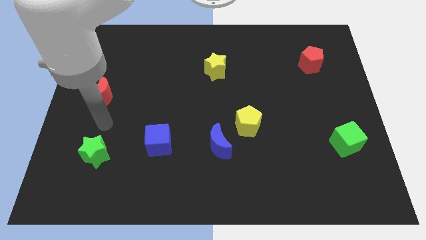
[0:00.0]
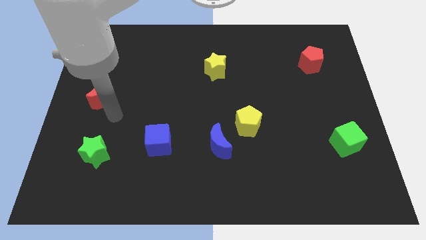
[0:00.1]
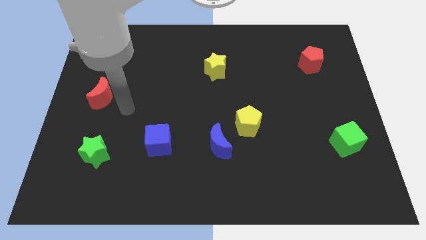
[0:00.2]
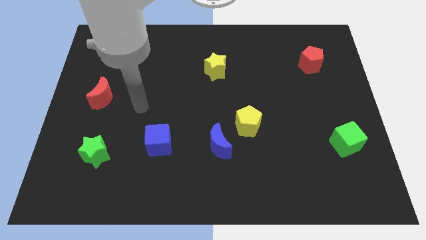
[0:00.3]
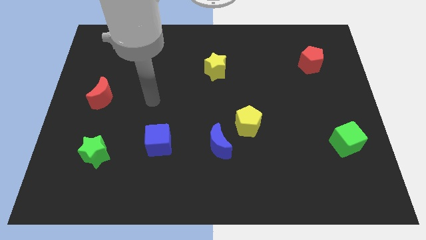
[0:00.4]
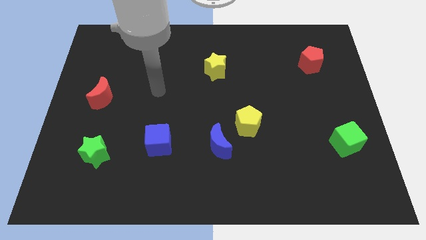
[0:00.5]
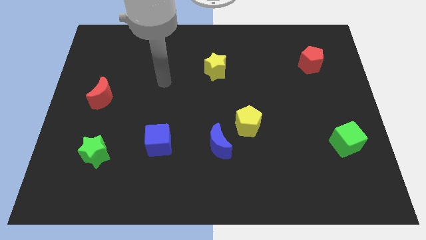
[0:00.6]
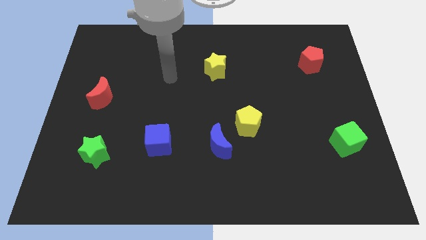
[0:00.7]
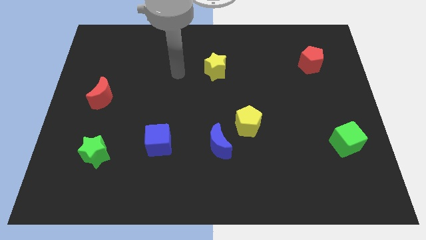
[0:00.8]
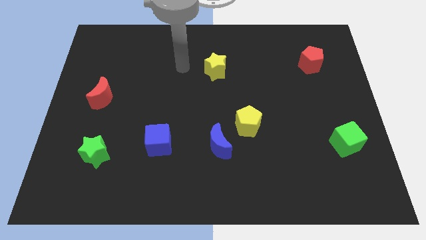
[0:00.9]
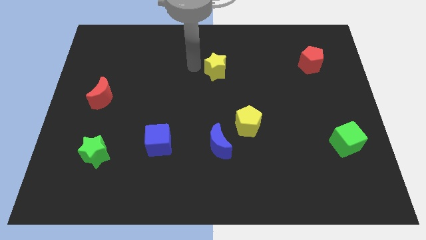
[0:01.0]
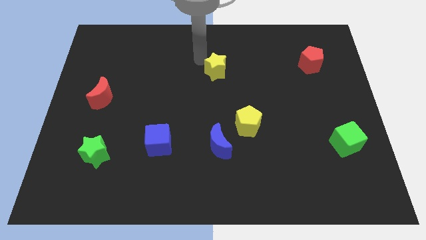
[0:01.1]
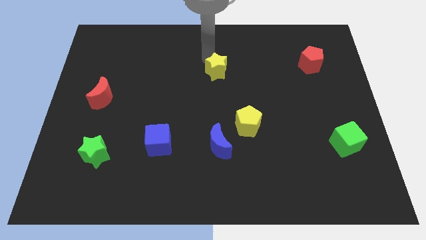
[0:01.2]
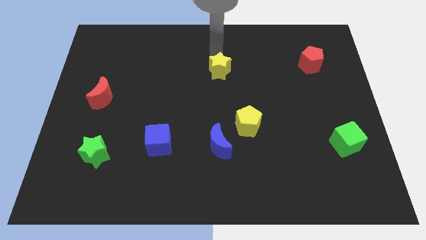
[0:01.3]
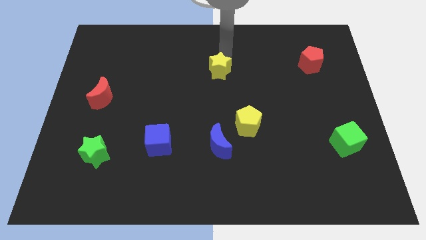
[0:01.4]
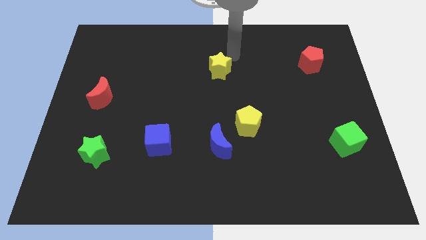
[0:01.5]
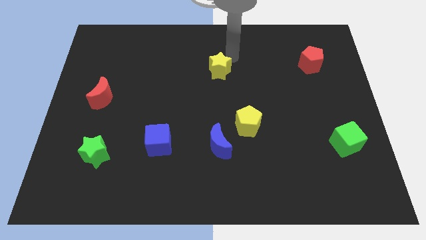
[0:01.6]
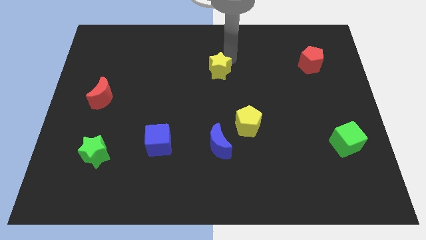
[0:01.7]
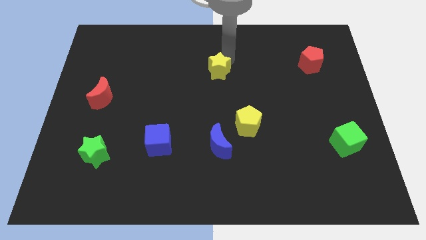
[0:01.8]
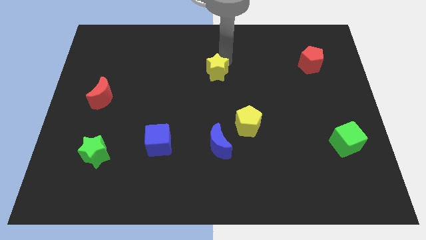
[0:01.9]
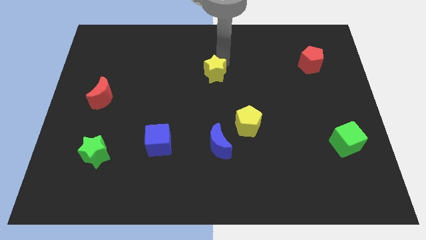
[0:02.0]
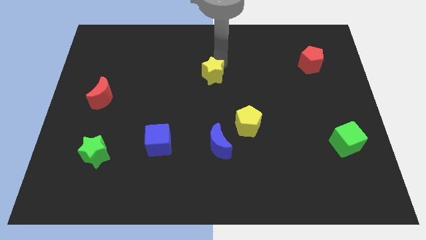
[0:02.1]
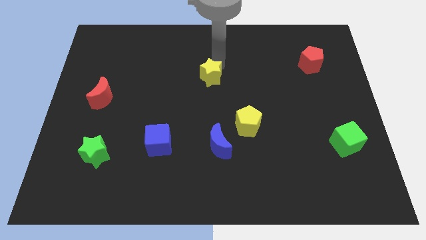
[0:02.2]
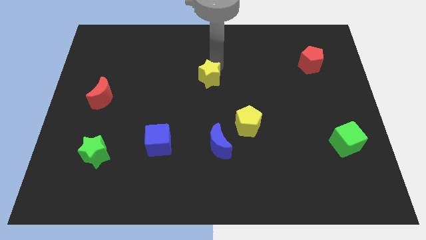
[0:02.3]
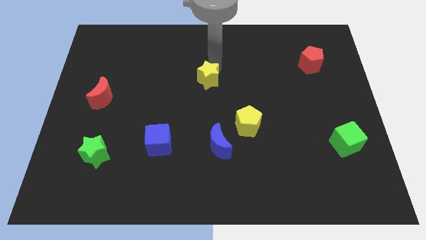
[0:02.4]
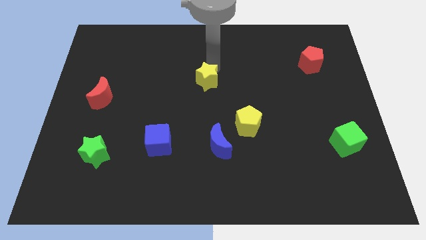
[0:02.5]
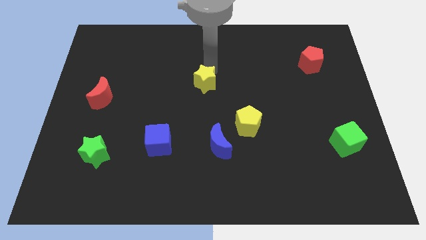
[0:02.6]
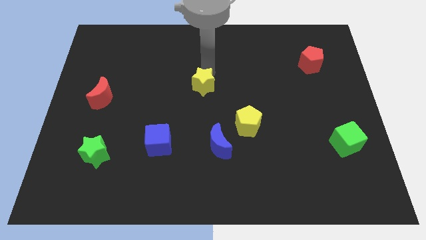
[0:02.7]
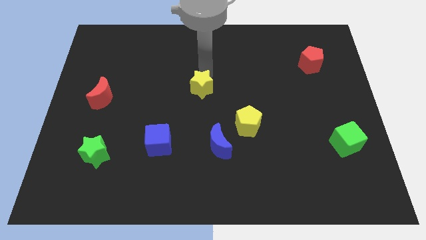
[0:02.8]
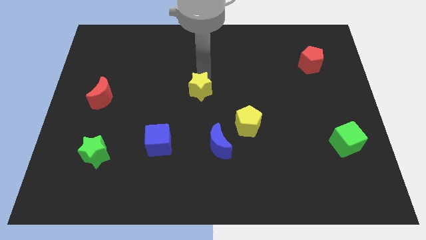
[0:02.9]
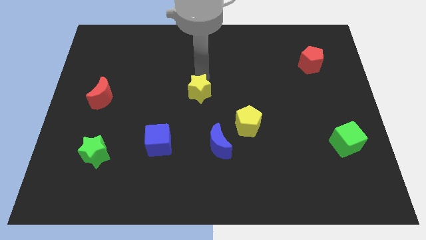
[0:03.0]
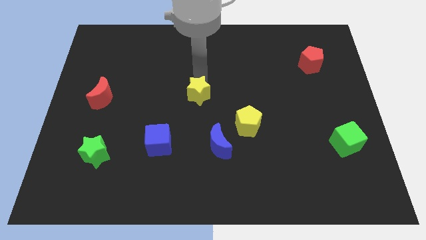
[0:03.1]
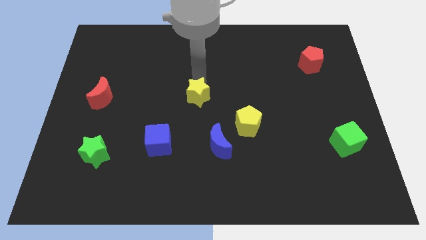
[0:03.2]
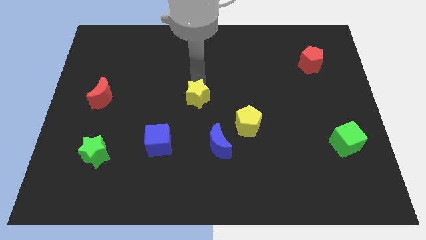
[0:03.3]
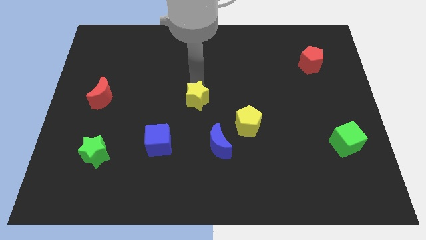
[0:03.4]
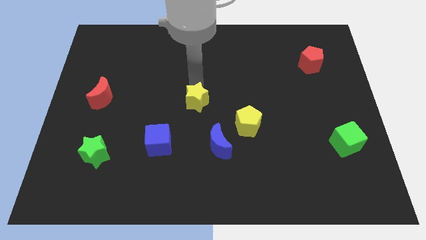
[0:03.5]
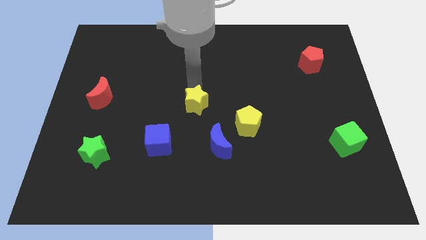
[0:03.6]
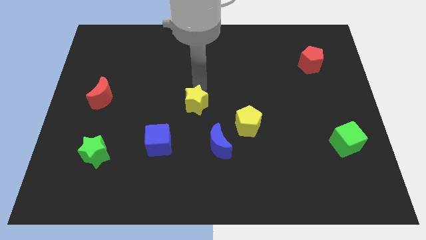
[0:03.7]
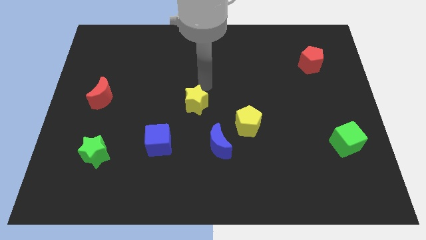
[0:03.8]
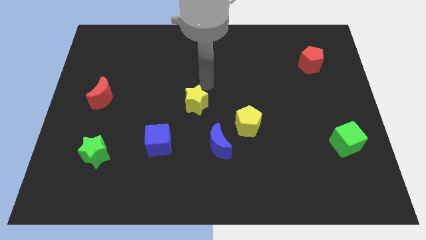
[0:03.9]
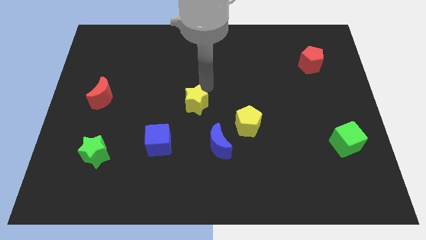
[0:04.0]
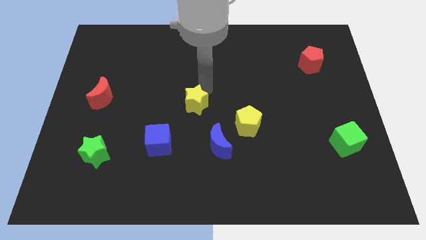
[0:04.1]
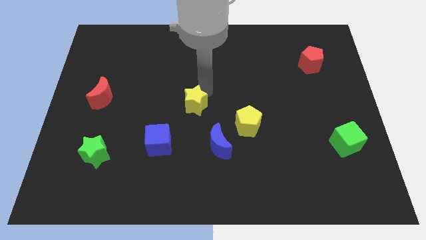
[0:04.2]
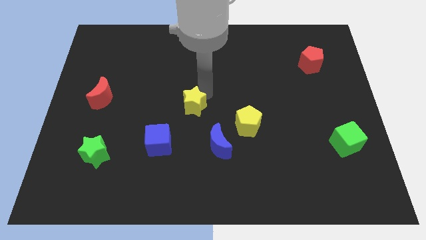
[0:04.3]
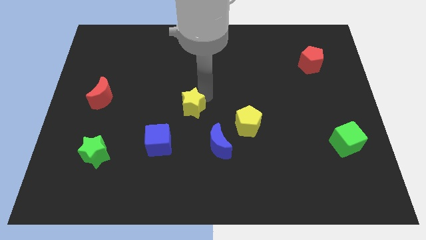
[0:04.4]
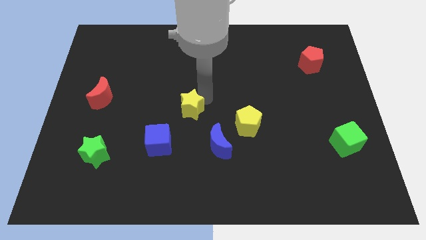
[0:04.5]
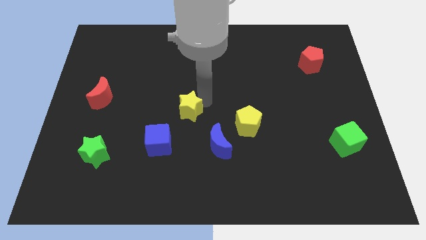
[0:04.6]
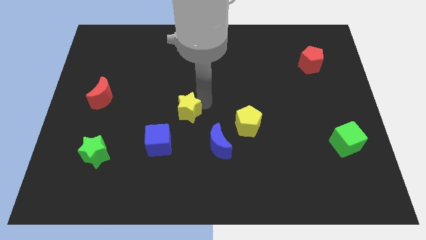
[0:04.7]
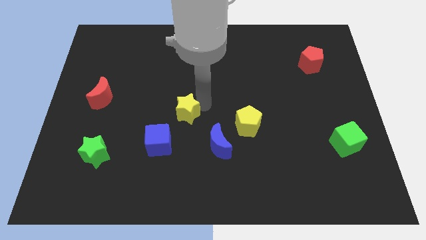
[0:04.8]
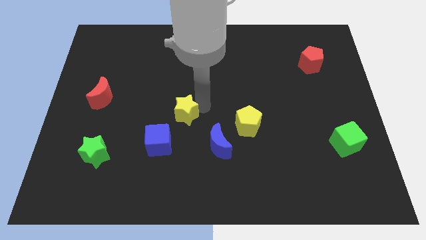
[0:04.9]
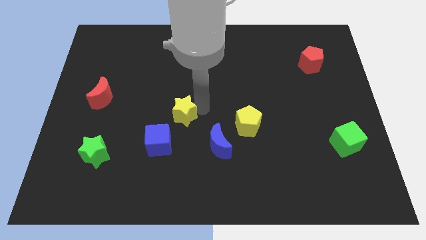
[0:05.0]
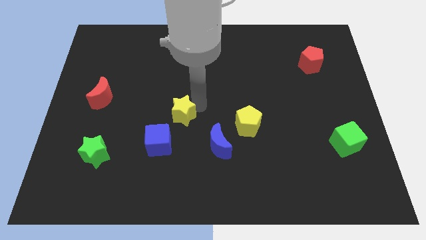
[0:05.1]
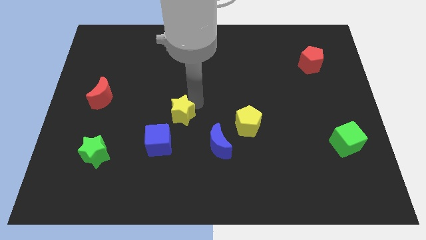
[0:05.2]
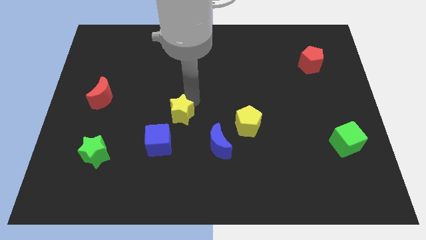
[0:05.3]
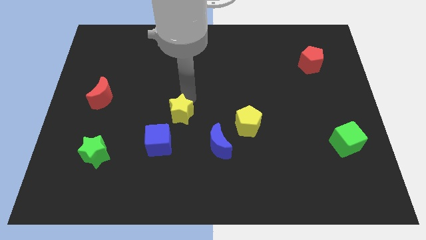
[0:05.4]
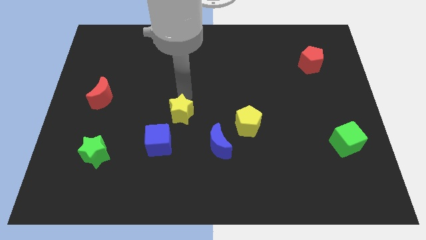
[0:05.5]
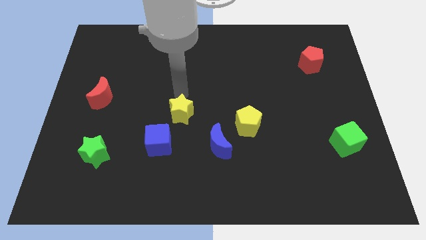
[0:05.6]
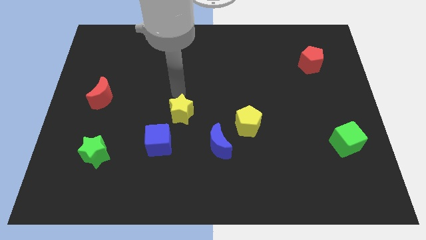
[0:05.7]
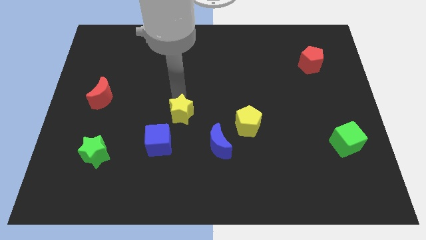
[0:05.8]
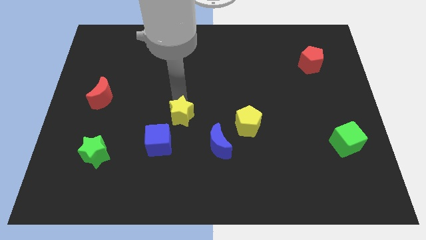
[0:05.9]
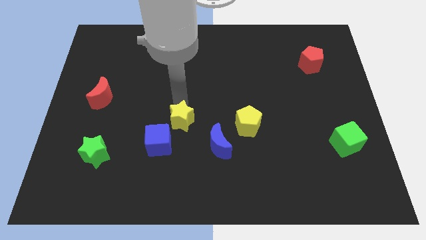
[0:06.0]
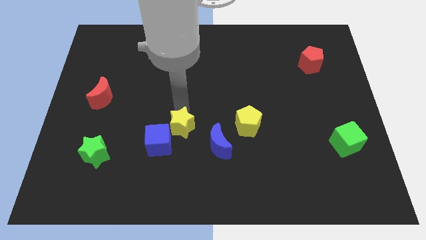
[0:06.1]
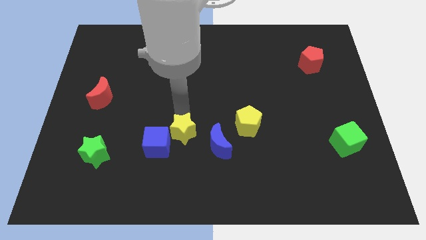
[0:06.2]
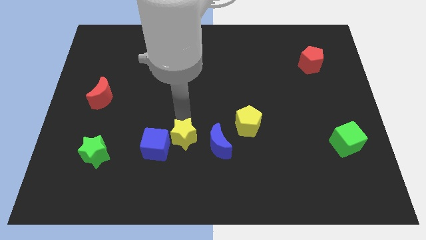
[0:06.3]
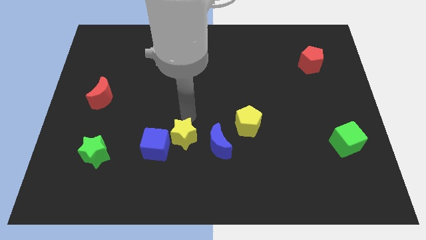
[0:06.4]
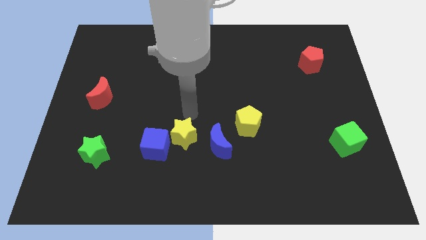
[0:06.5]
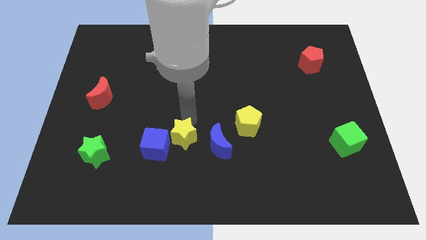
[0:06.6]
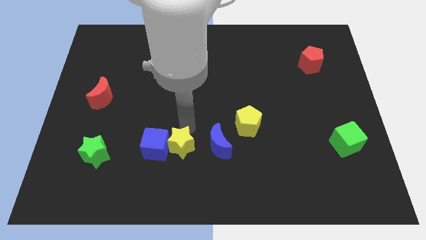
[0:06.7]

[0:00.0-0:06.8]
move the yellow star to the bottom right of the blue cube
